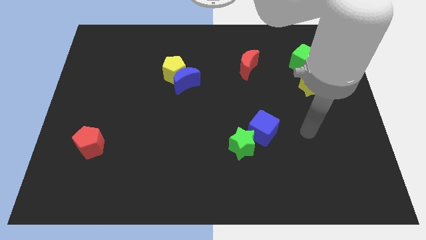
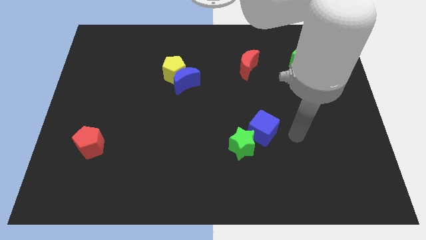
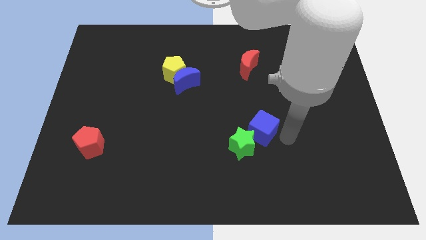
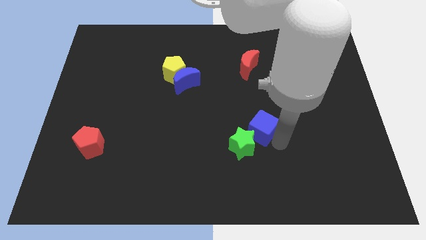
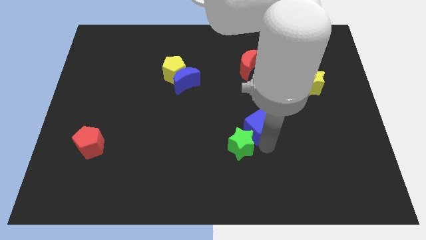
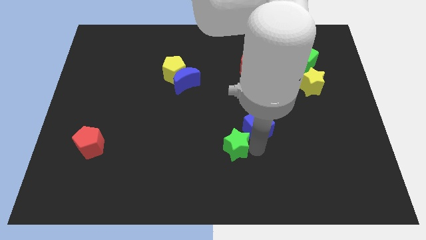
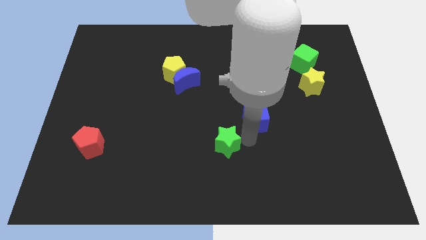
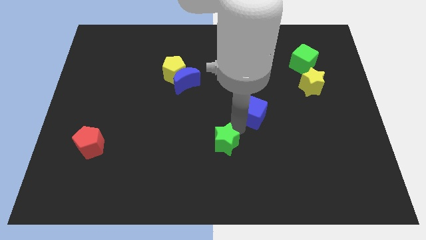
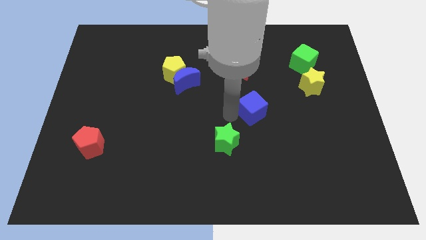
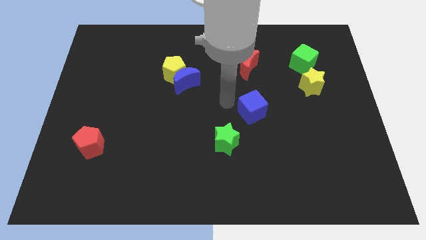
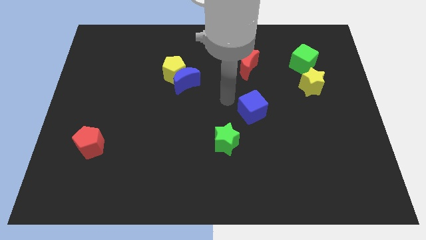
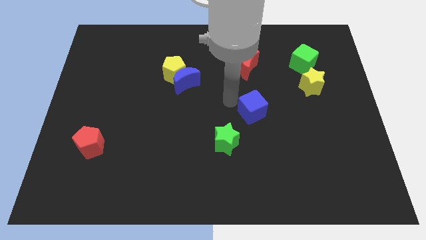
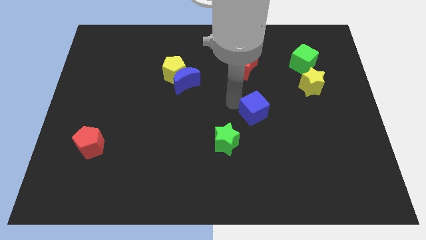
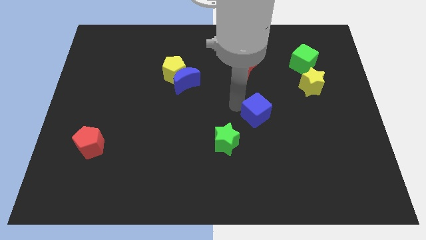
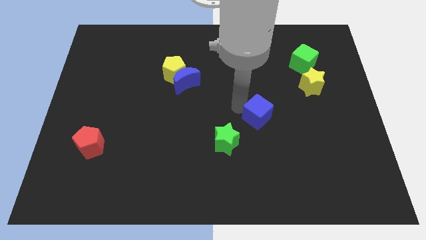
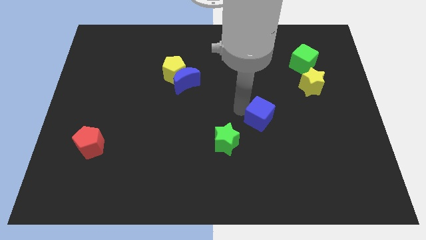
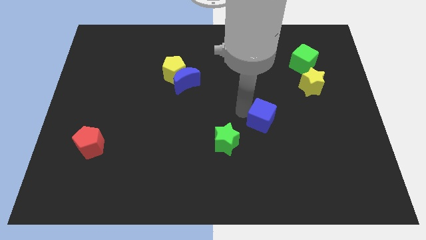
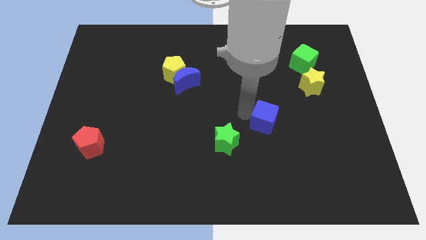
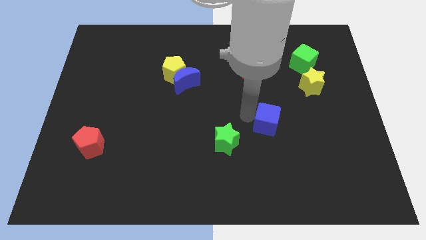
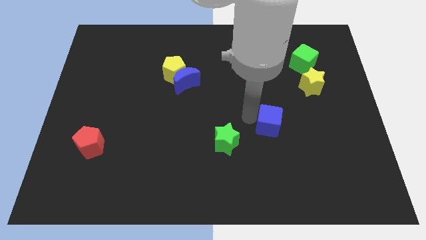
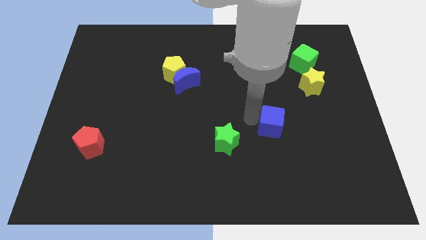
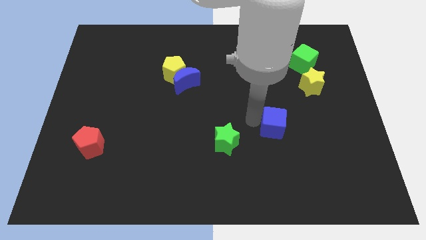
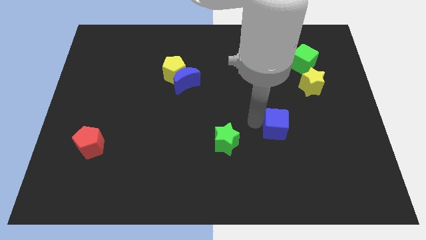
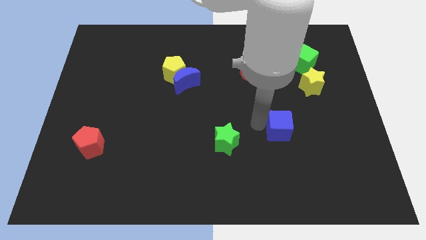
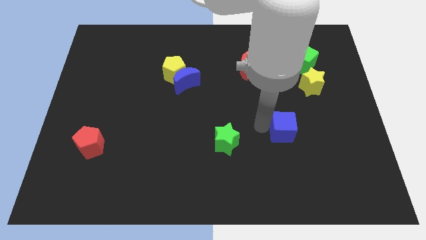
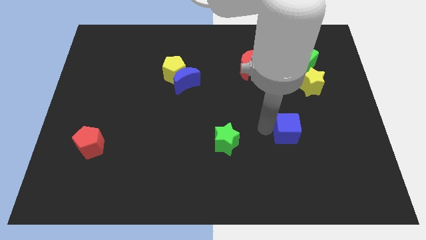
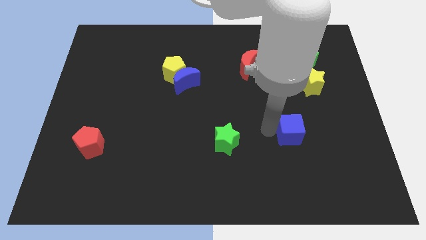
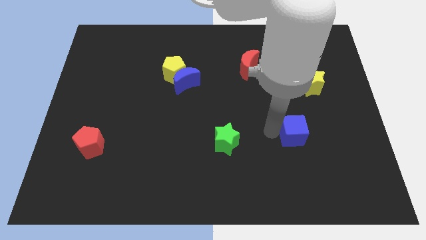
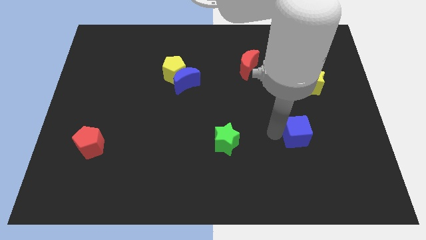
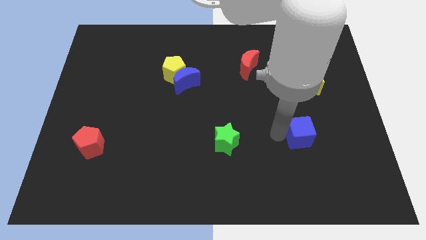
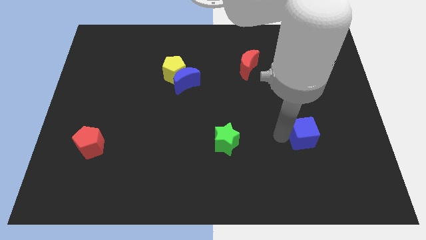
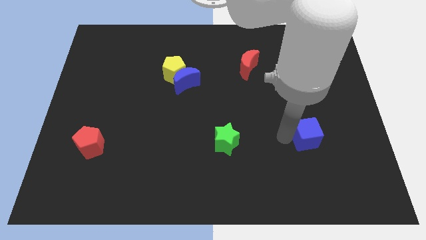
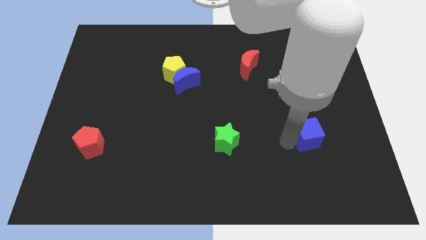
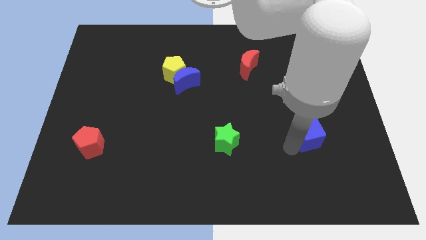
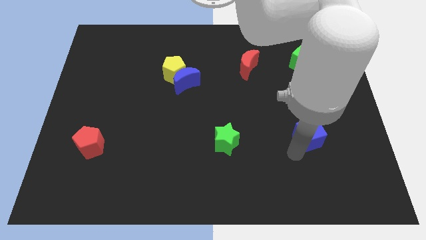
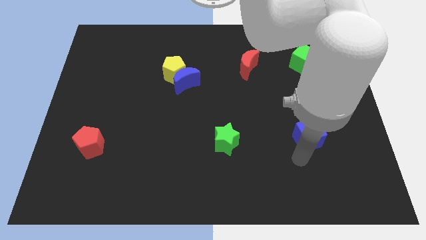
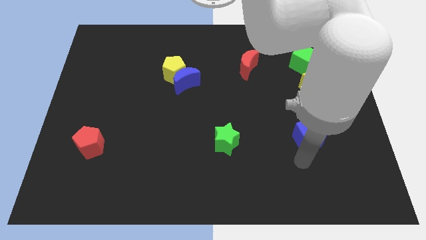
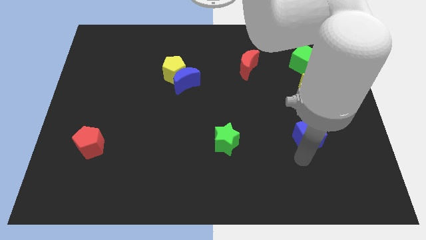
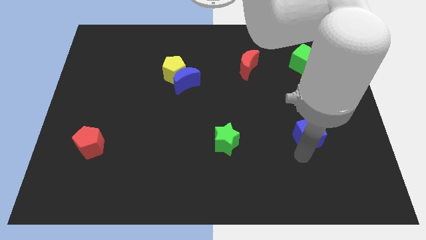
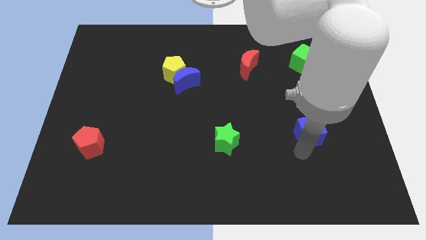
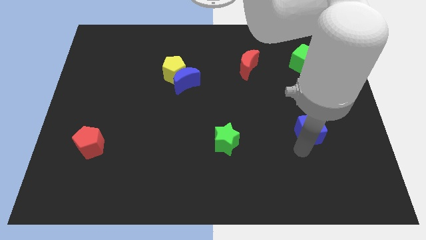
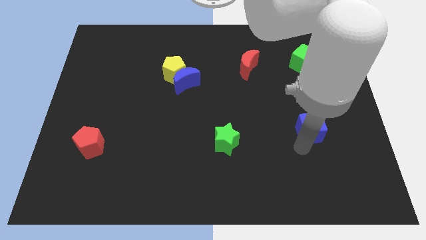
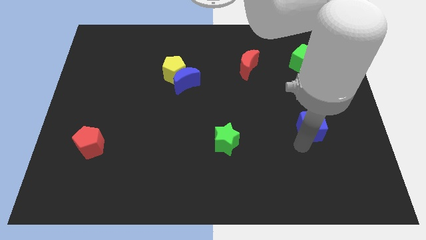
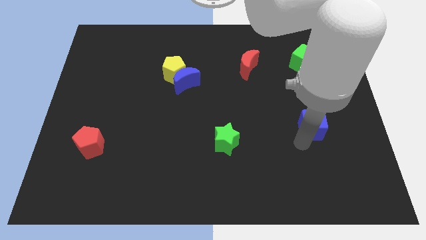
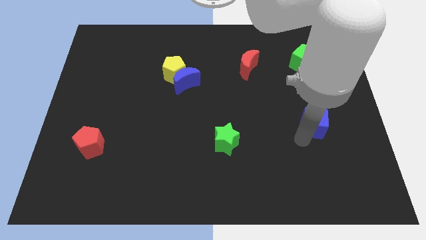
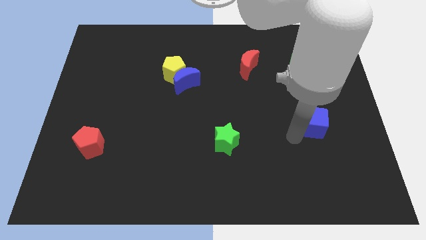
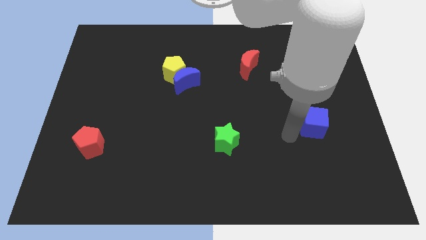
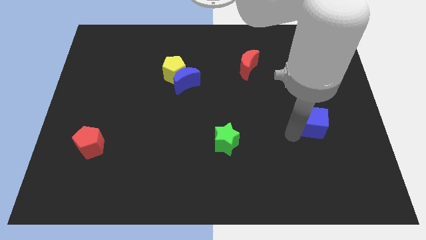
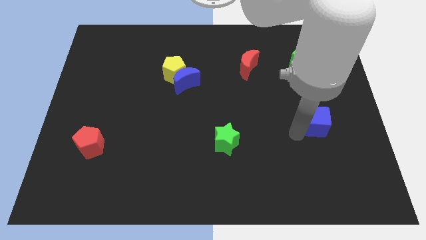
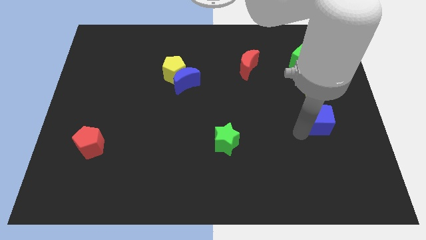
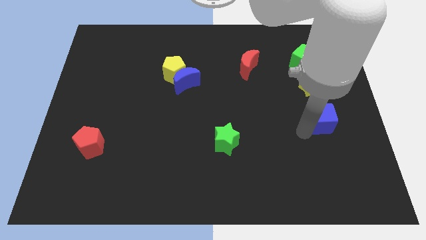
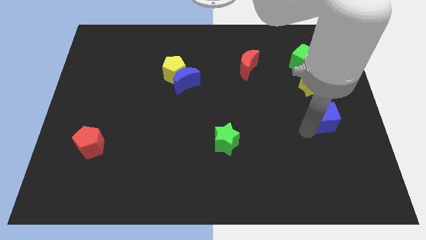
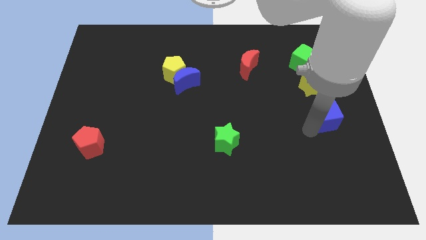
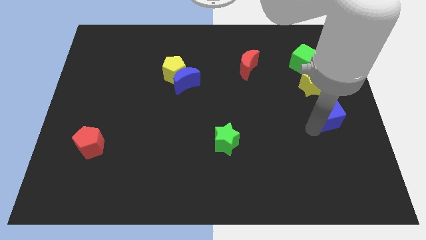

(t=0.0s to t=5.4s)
put the blue cube to the right side

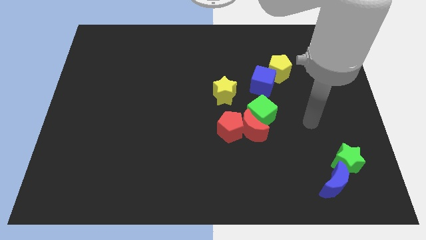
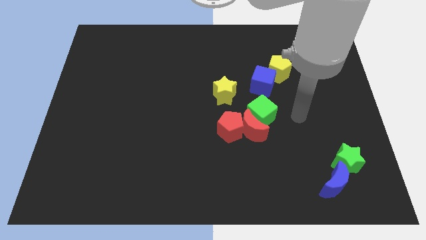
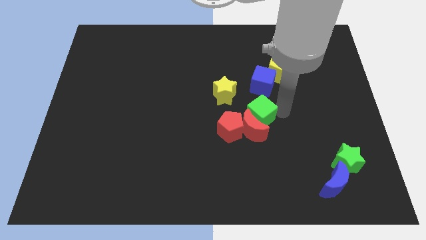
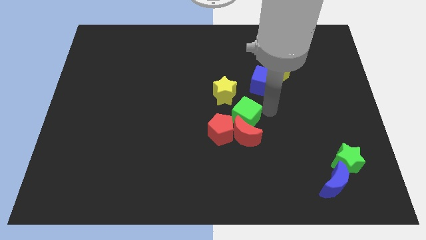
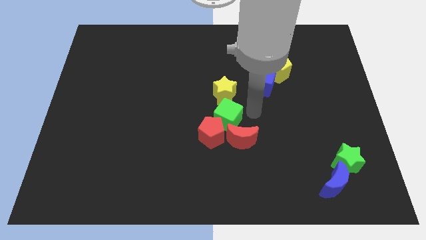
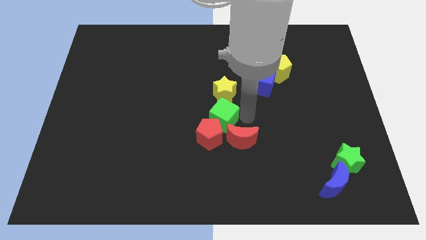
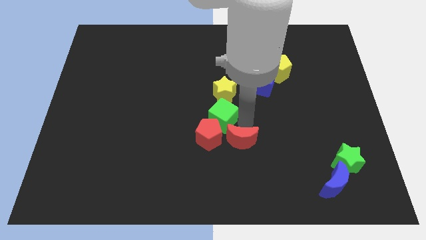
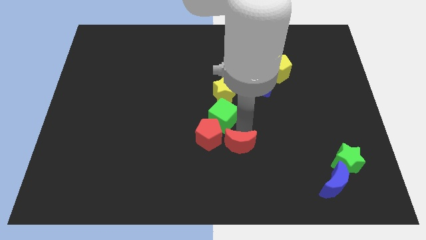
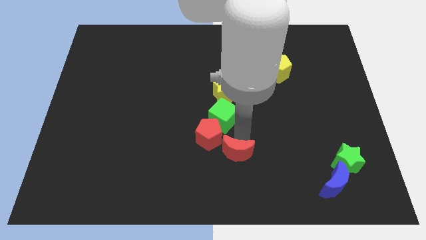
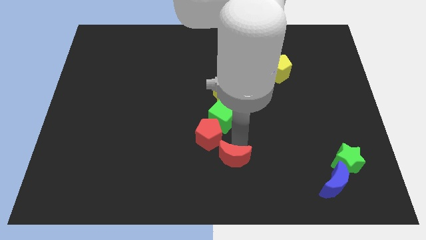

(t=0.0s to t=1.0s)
put the red moon to the bottom side
